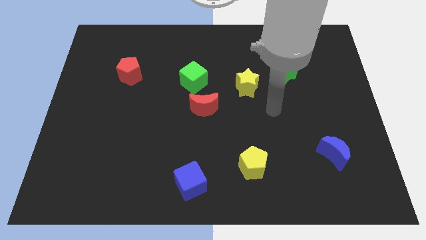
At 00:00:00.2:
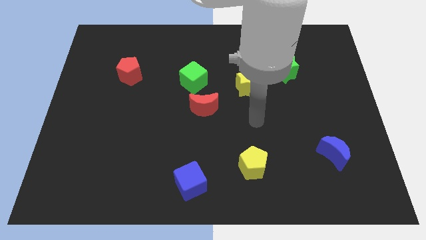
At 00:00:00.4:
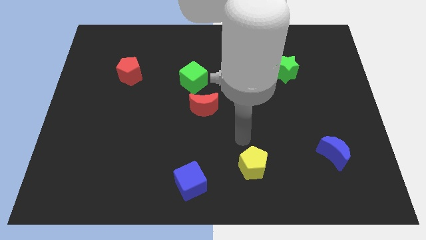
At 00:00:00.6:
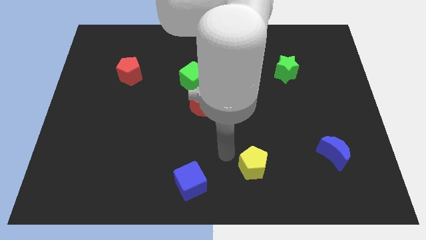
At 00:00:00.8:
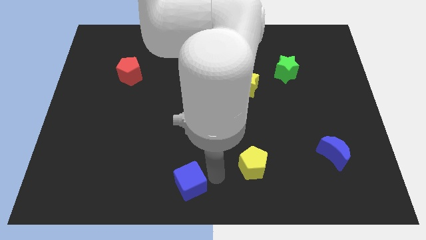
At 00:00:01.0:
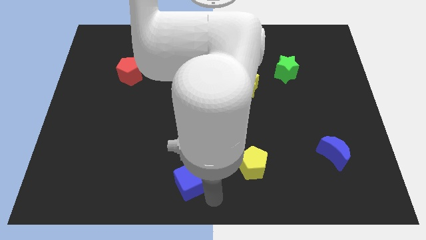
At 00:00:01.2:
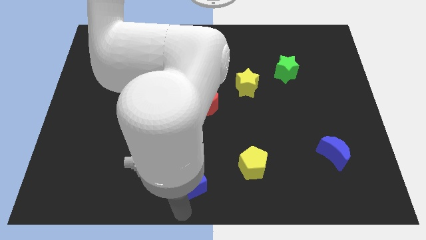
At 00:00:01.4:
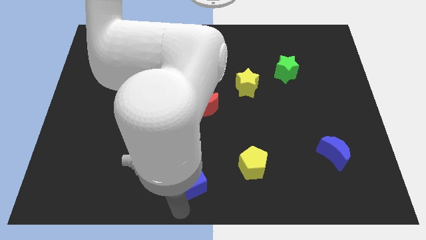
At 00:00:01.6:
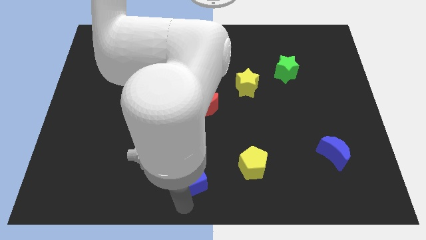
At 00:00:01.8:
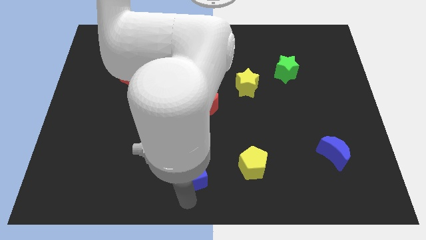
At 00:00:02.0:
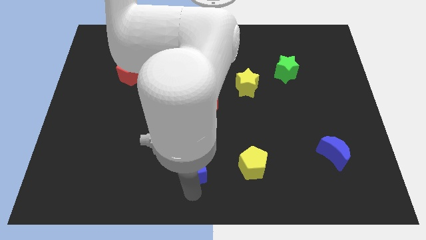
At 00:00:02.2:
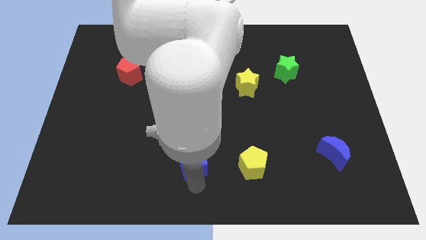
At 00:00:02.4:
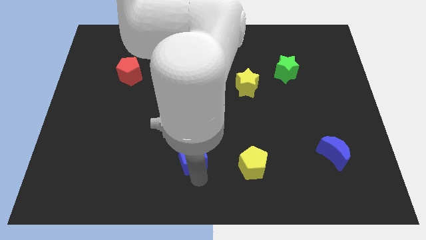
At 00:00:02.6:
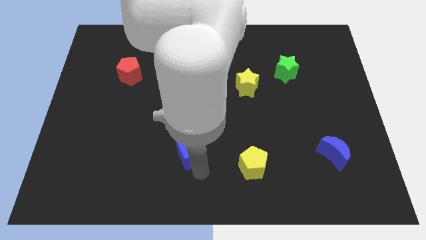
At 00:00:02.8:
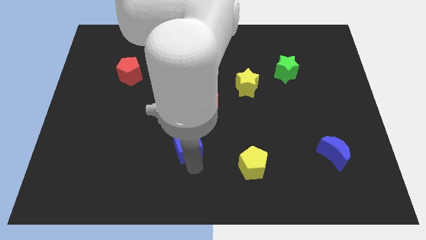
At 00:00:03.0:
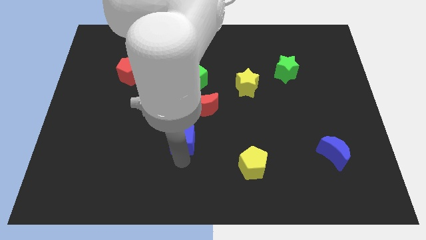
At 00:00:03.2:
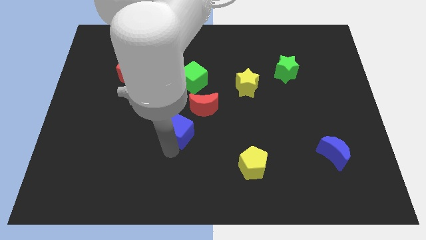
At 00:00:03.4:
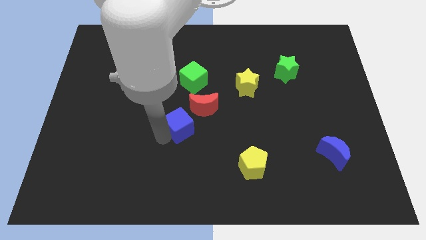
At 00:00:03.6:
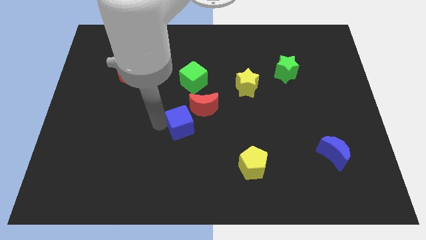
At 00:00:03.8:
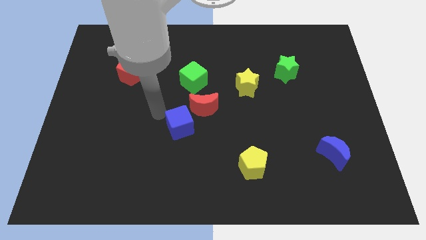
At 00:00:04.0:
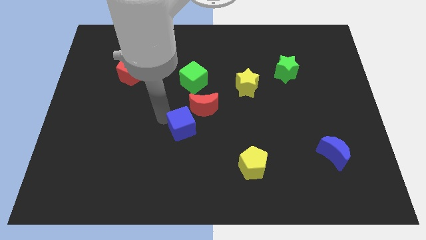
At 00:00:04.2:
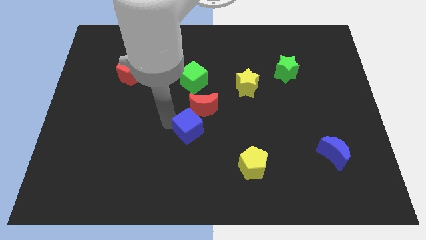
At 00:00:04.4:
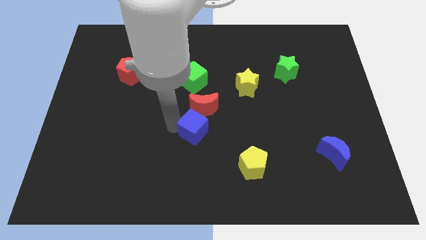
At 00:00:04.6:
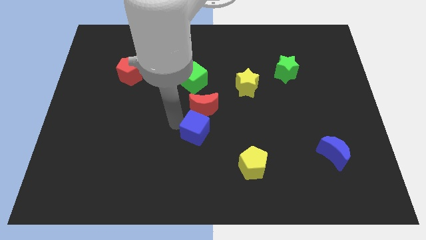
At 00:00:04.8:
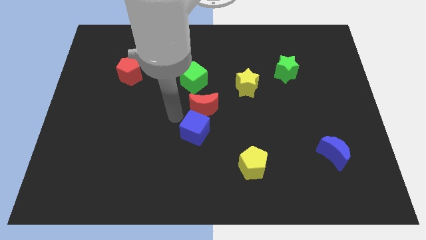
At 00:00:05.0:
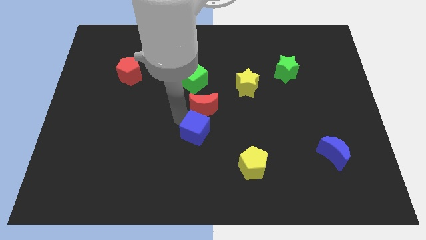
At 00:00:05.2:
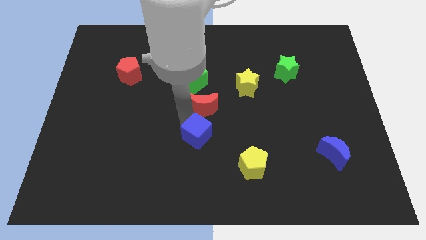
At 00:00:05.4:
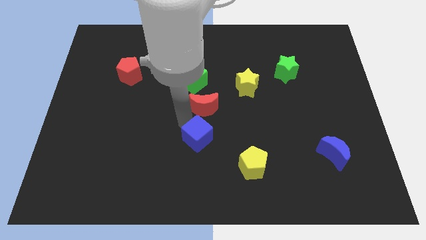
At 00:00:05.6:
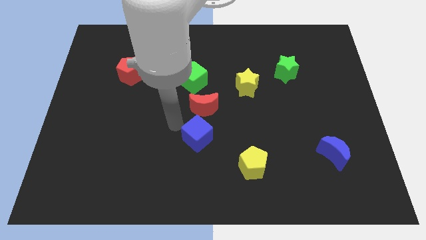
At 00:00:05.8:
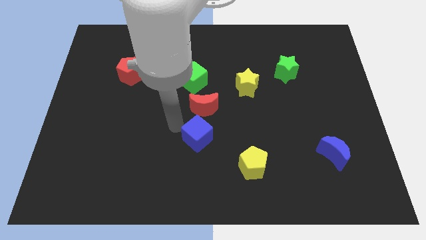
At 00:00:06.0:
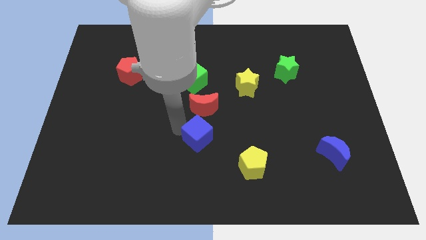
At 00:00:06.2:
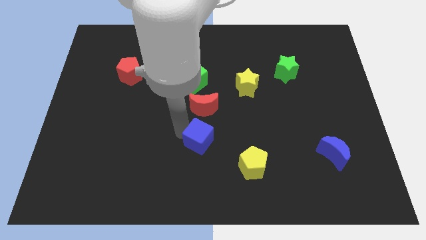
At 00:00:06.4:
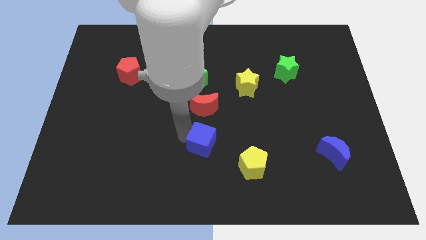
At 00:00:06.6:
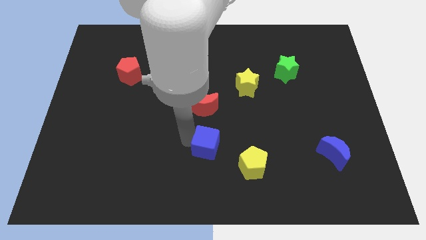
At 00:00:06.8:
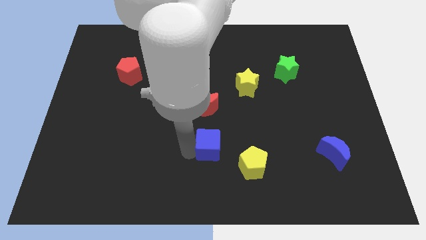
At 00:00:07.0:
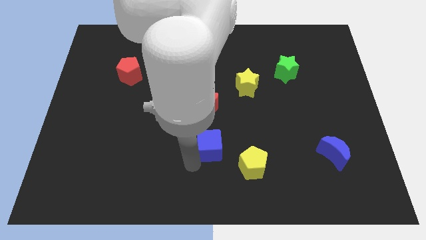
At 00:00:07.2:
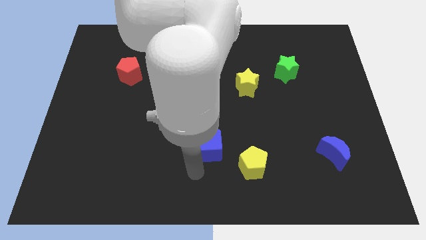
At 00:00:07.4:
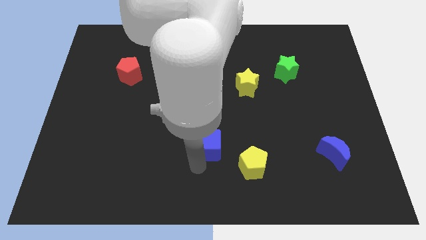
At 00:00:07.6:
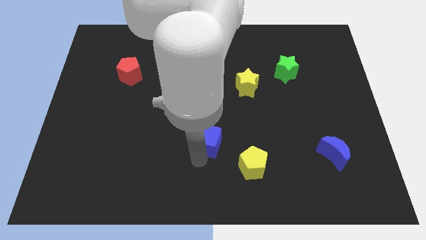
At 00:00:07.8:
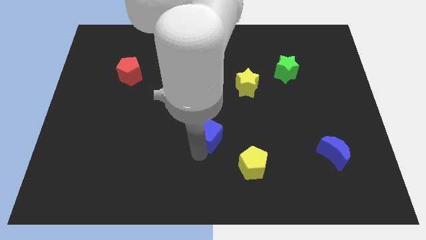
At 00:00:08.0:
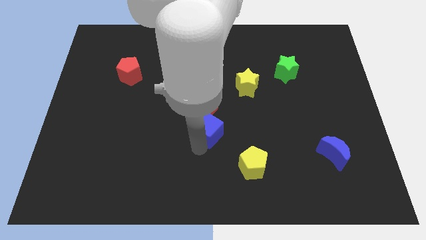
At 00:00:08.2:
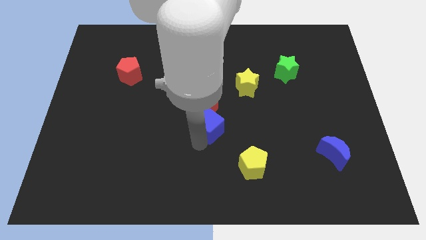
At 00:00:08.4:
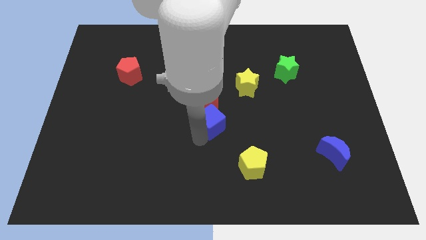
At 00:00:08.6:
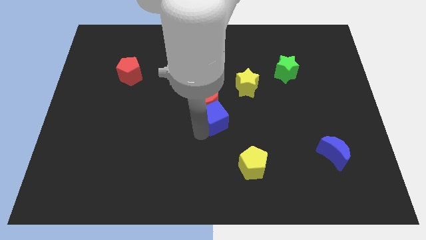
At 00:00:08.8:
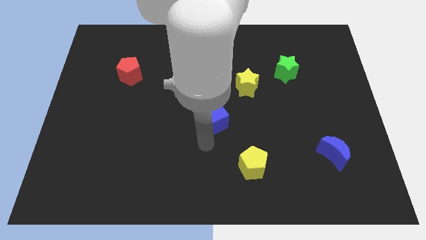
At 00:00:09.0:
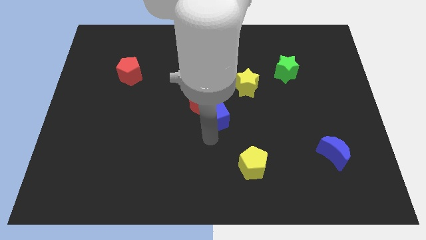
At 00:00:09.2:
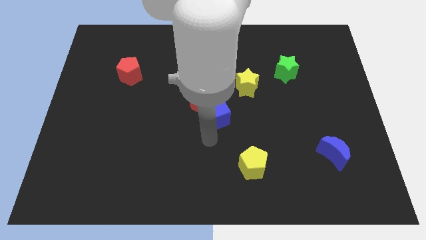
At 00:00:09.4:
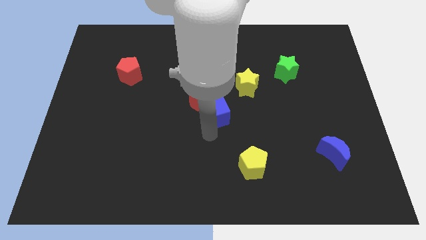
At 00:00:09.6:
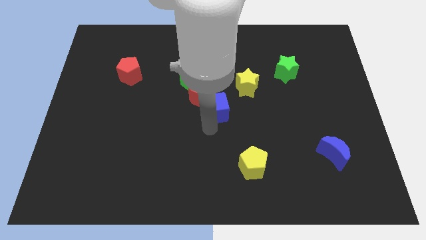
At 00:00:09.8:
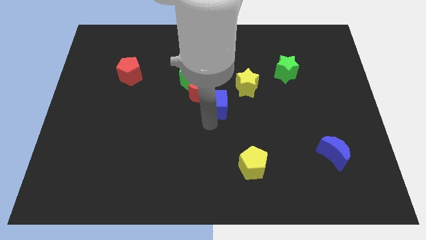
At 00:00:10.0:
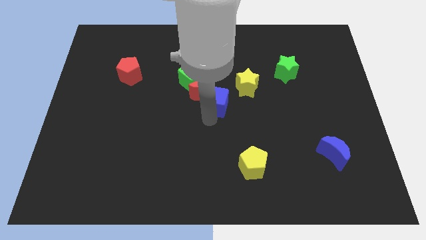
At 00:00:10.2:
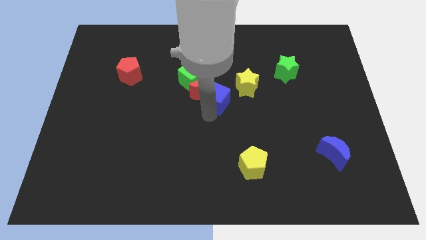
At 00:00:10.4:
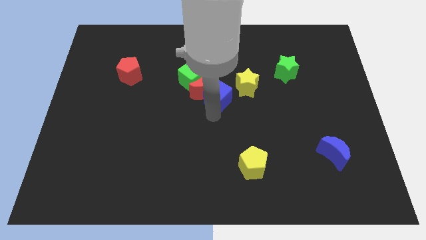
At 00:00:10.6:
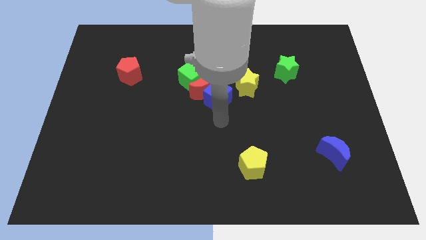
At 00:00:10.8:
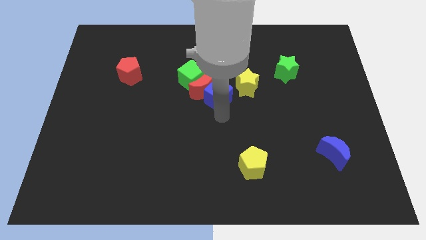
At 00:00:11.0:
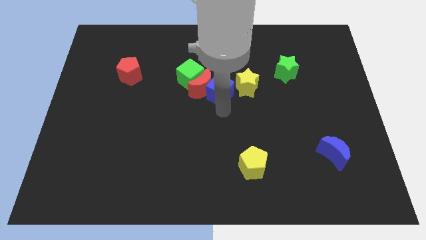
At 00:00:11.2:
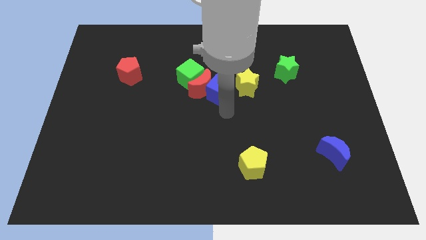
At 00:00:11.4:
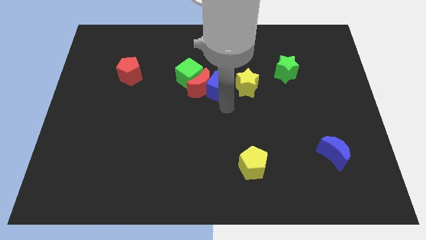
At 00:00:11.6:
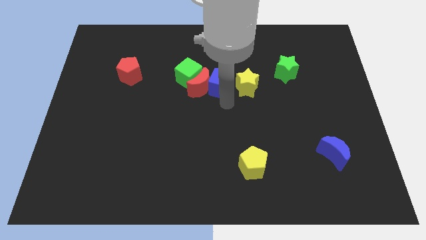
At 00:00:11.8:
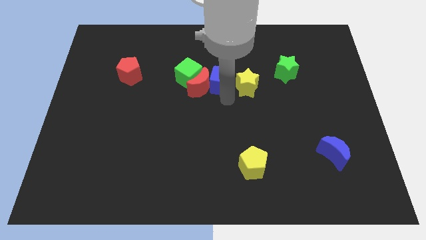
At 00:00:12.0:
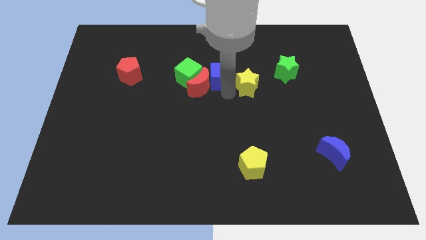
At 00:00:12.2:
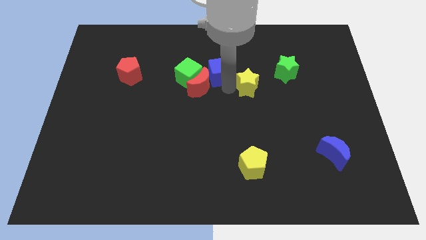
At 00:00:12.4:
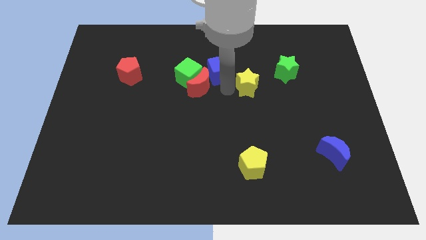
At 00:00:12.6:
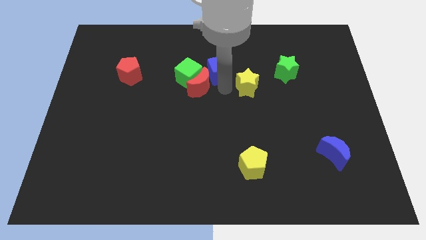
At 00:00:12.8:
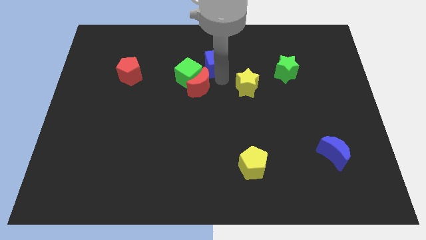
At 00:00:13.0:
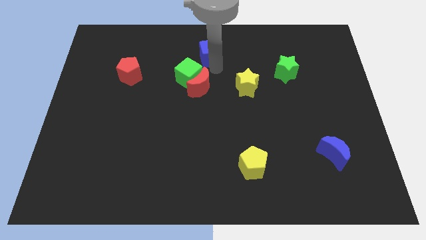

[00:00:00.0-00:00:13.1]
move the blue cube to the towards your base
